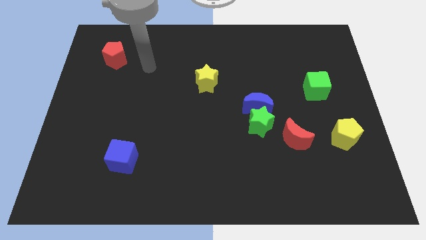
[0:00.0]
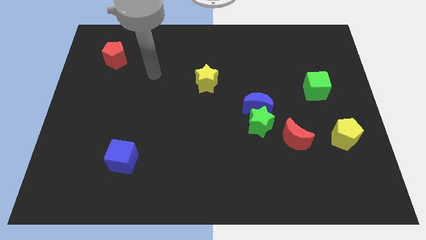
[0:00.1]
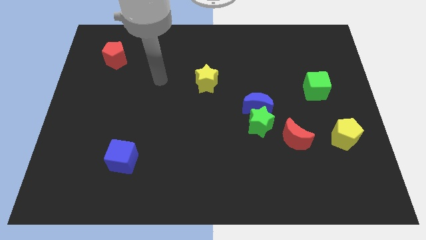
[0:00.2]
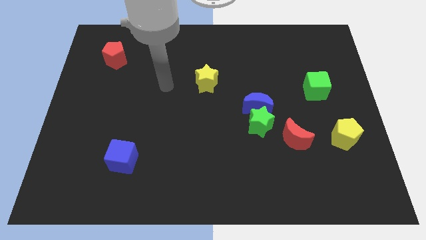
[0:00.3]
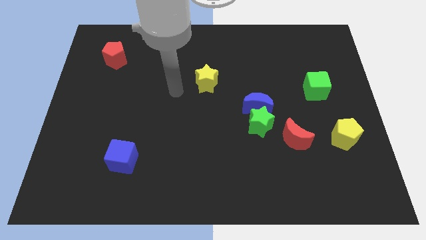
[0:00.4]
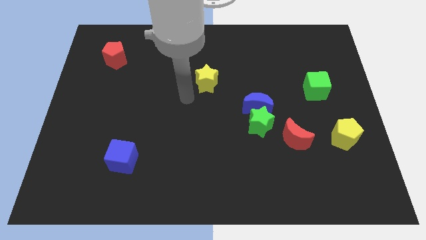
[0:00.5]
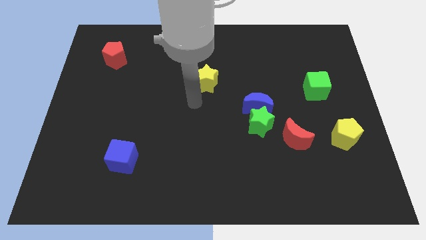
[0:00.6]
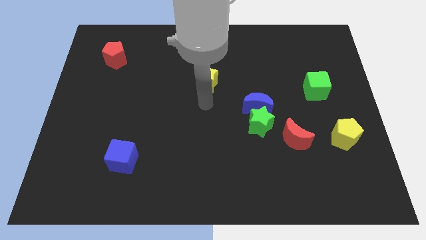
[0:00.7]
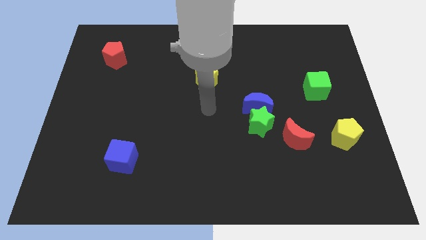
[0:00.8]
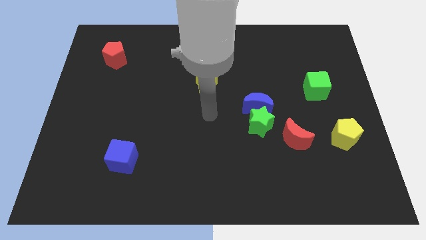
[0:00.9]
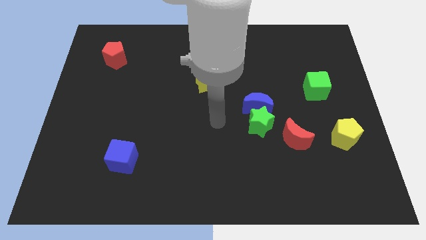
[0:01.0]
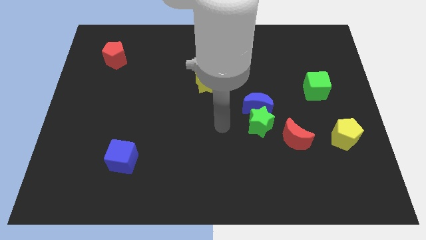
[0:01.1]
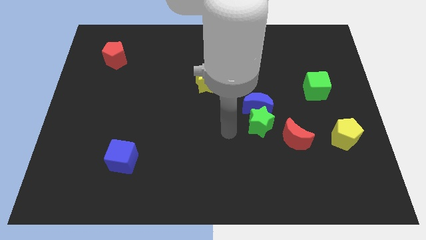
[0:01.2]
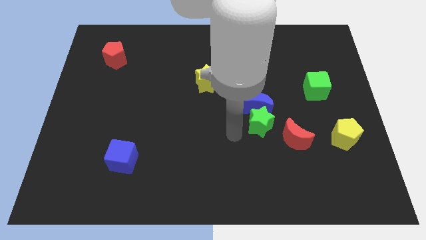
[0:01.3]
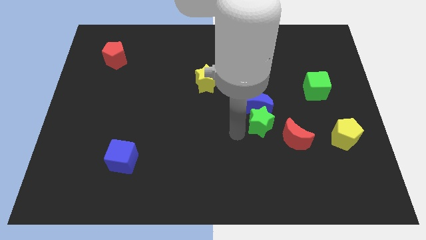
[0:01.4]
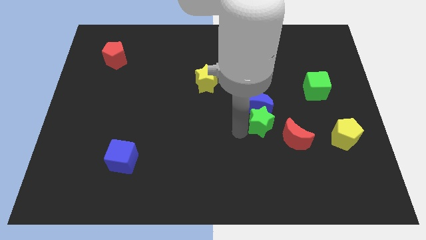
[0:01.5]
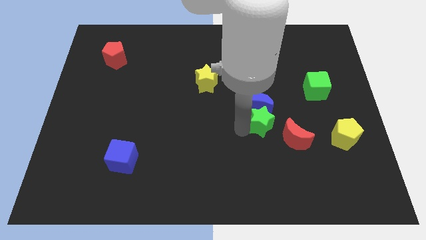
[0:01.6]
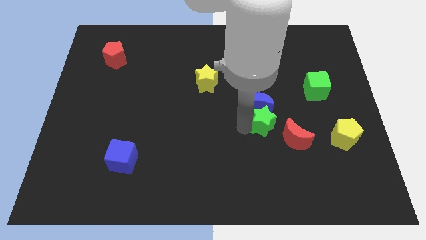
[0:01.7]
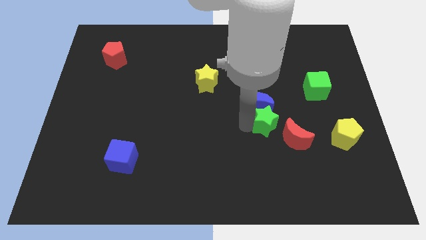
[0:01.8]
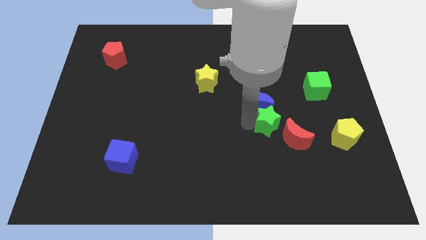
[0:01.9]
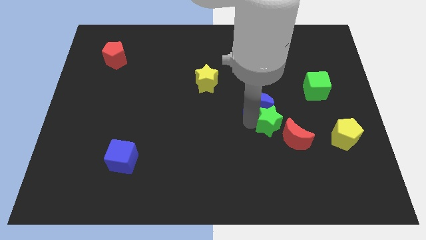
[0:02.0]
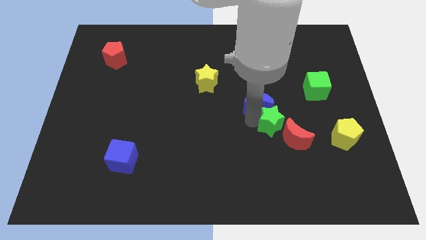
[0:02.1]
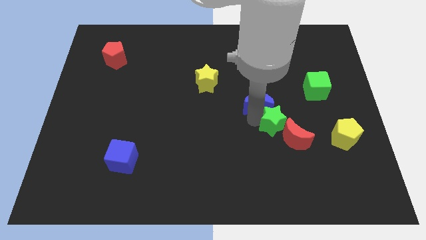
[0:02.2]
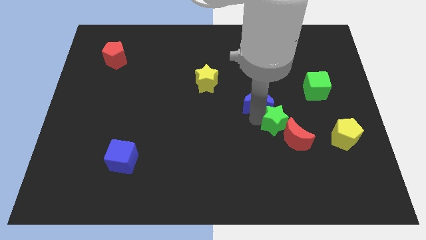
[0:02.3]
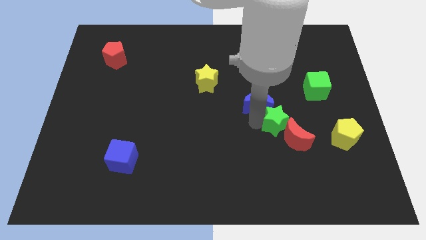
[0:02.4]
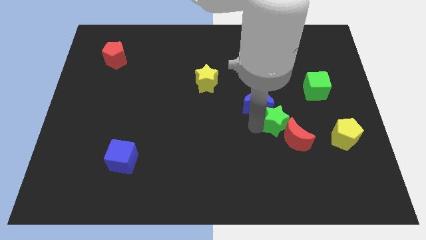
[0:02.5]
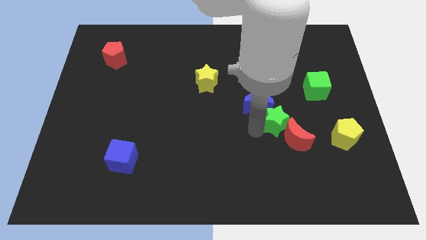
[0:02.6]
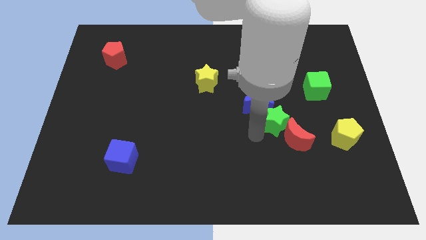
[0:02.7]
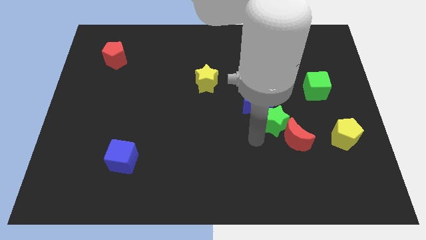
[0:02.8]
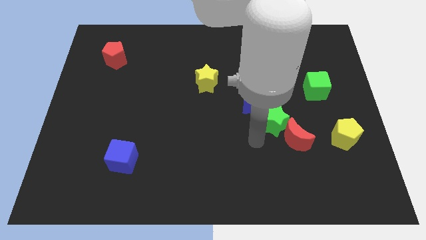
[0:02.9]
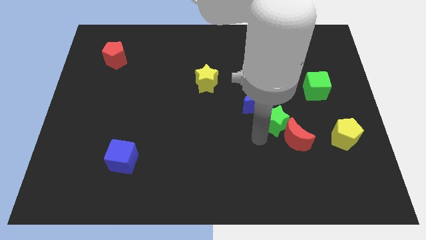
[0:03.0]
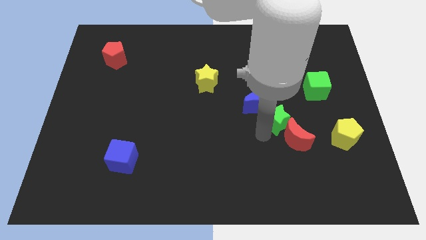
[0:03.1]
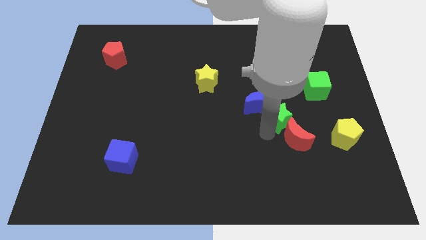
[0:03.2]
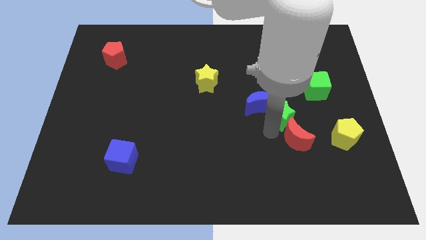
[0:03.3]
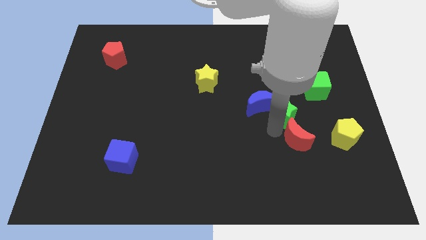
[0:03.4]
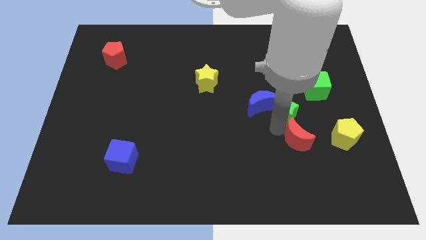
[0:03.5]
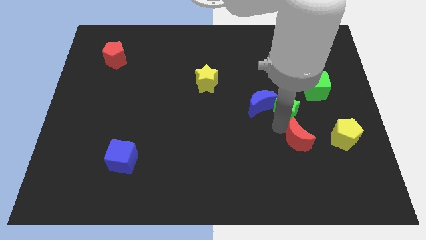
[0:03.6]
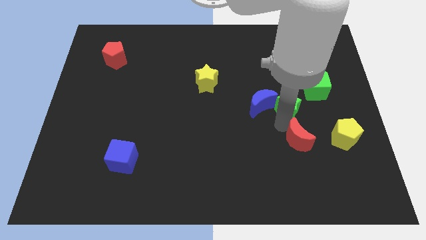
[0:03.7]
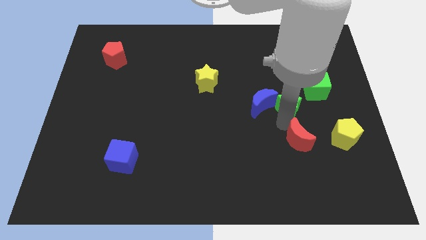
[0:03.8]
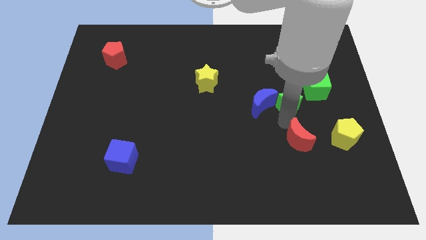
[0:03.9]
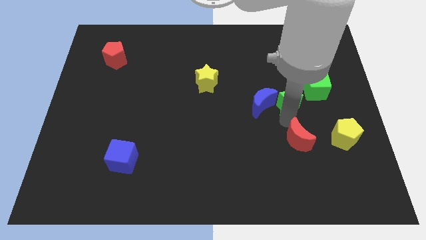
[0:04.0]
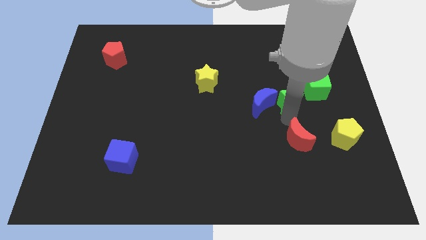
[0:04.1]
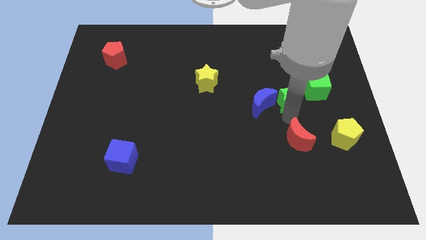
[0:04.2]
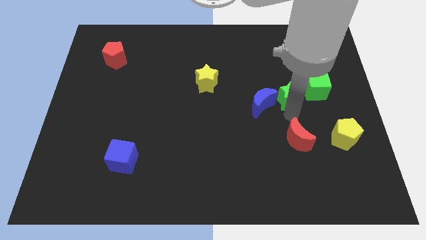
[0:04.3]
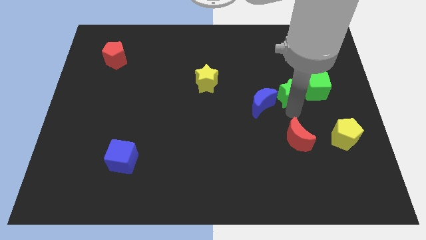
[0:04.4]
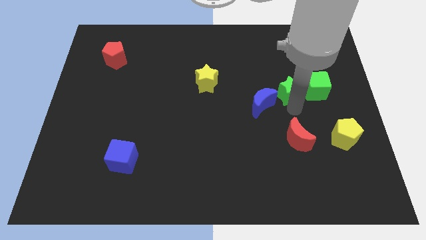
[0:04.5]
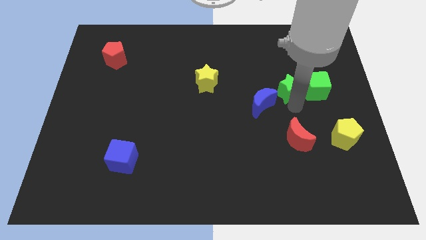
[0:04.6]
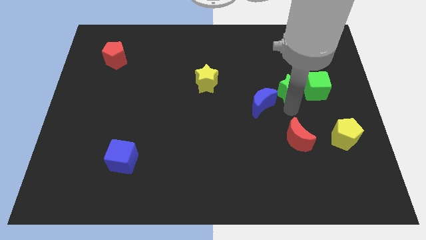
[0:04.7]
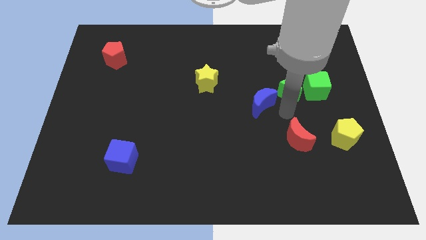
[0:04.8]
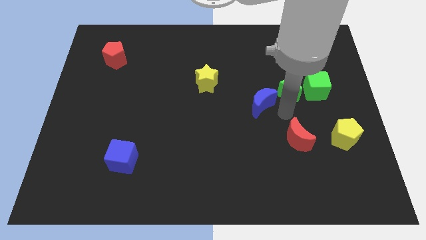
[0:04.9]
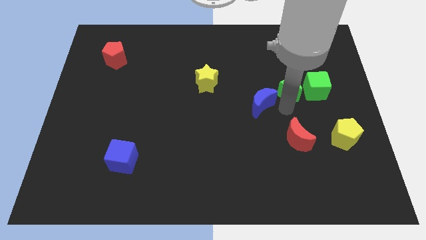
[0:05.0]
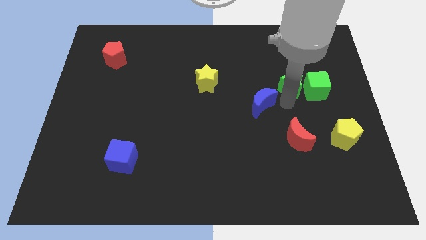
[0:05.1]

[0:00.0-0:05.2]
slide the green star diagonally up and to the left of the green cube

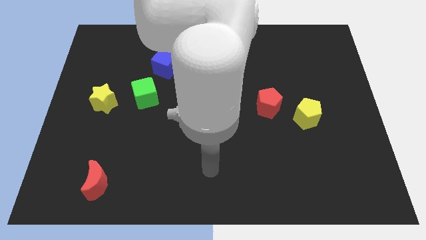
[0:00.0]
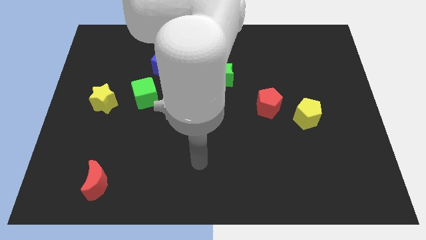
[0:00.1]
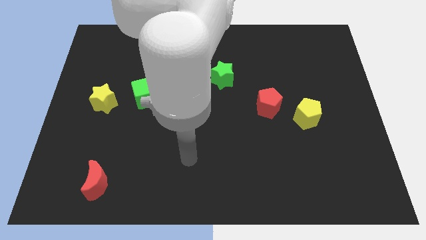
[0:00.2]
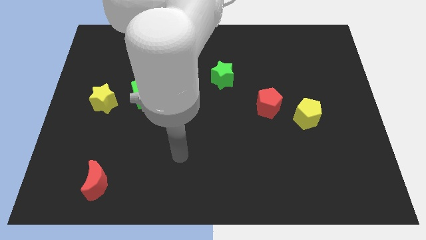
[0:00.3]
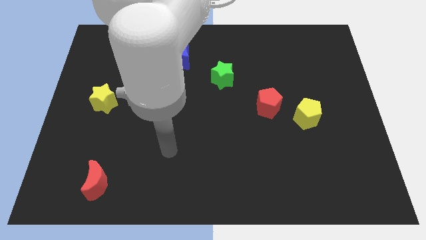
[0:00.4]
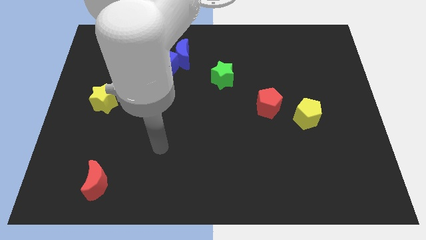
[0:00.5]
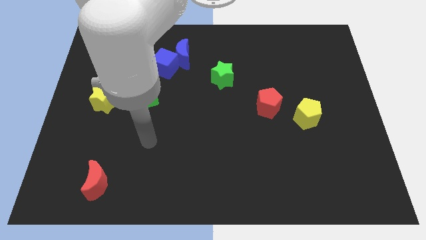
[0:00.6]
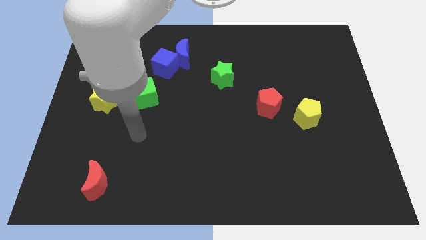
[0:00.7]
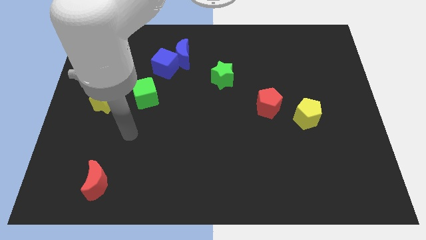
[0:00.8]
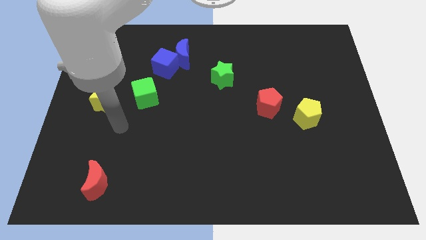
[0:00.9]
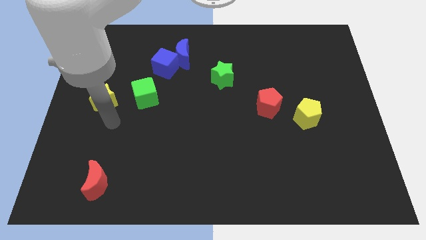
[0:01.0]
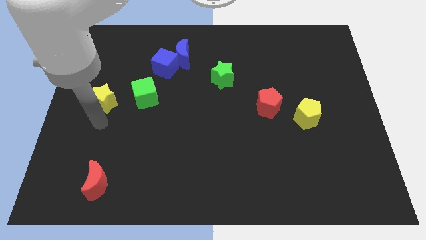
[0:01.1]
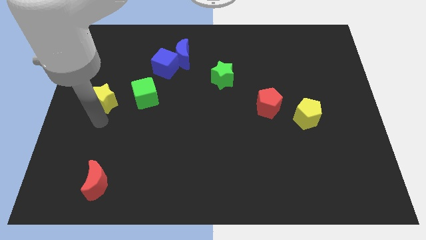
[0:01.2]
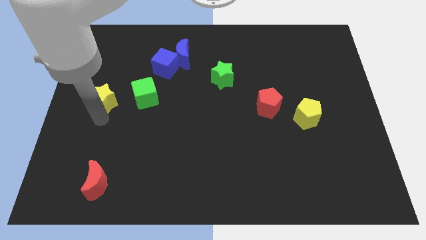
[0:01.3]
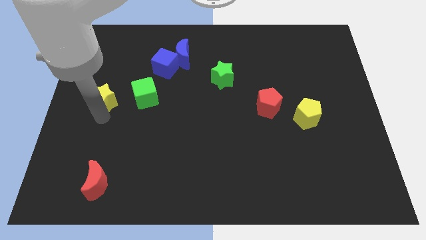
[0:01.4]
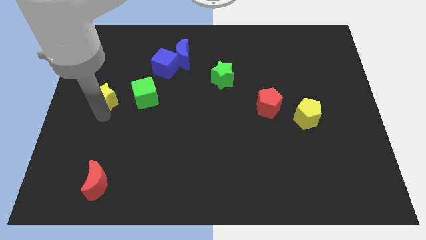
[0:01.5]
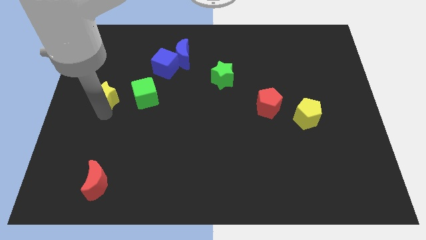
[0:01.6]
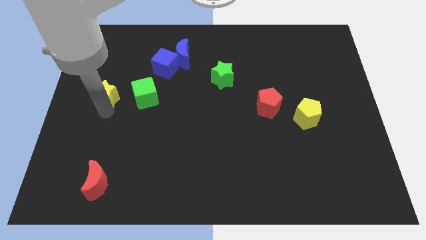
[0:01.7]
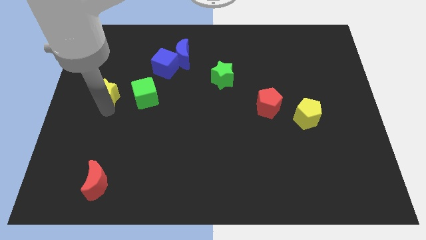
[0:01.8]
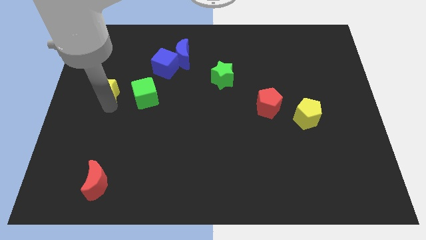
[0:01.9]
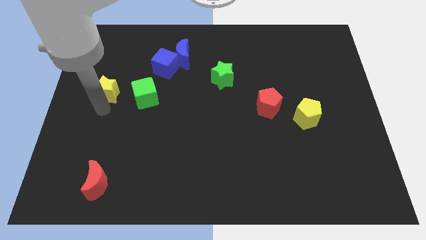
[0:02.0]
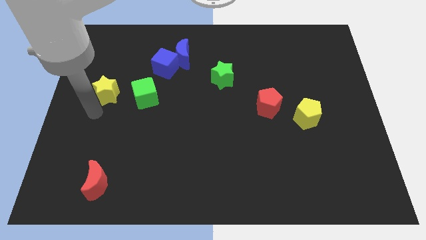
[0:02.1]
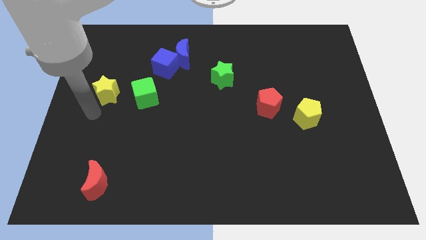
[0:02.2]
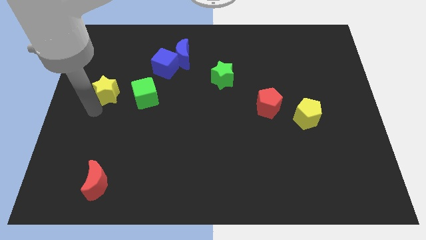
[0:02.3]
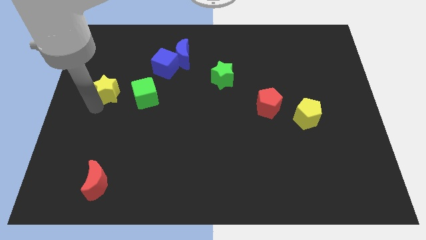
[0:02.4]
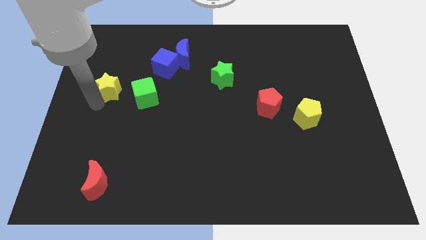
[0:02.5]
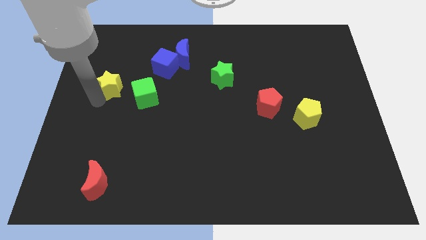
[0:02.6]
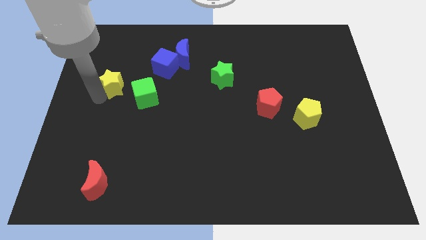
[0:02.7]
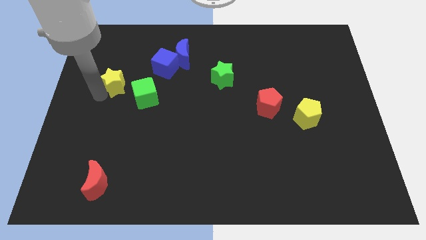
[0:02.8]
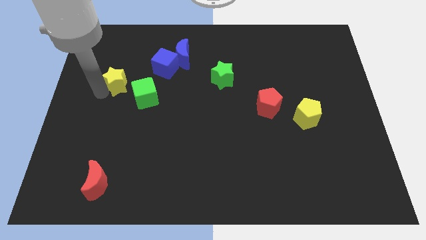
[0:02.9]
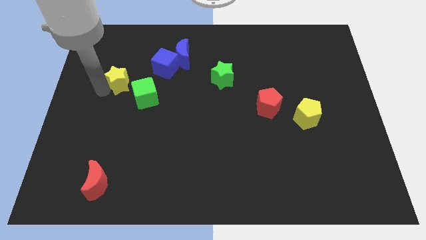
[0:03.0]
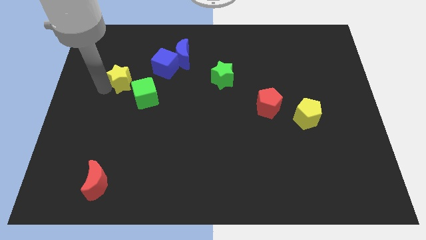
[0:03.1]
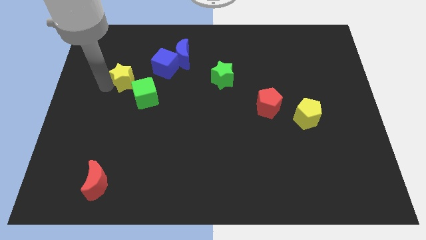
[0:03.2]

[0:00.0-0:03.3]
put the yellow star to the left of the blue cube
